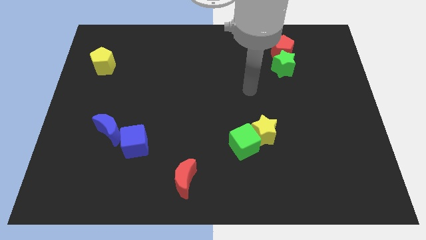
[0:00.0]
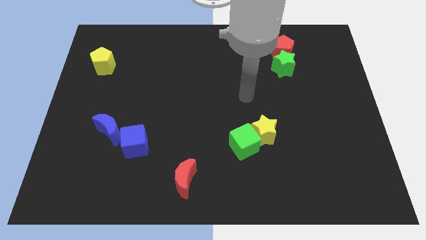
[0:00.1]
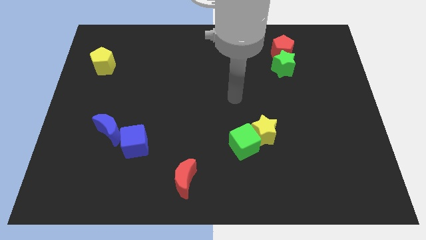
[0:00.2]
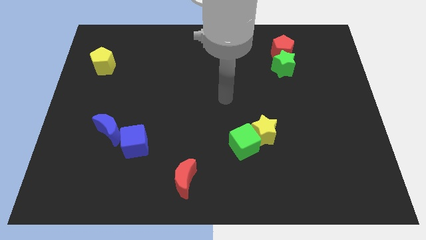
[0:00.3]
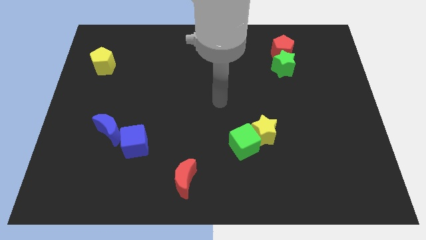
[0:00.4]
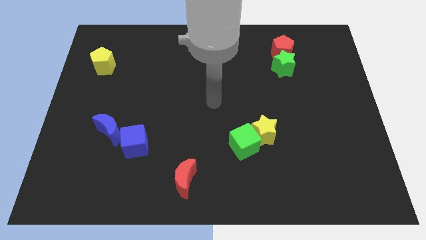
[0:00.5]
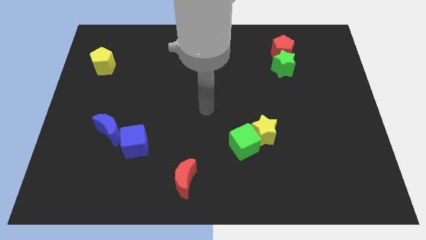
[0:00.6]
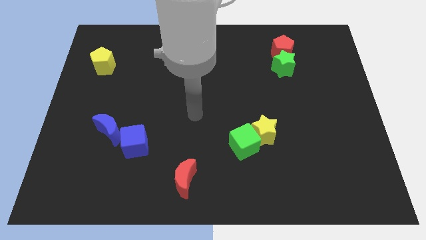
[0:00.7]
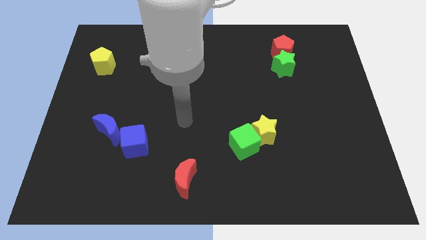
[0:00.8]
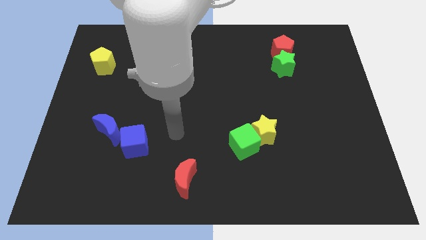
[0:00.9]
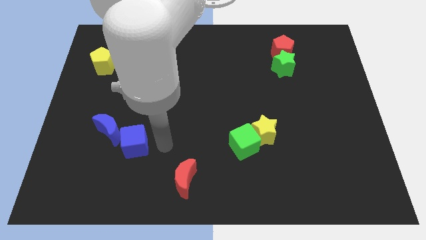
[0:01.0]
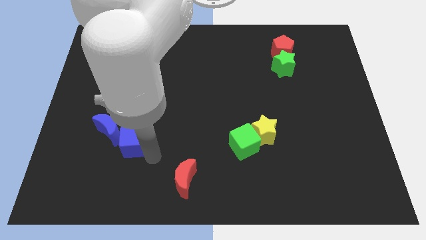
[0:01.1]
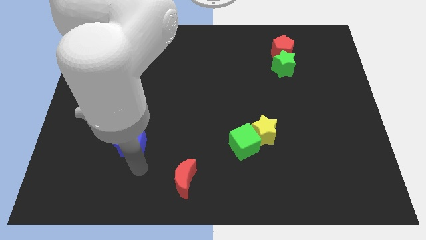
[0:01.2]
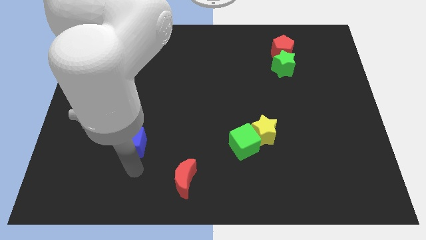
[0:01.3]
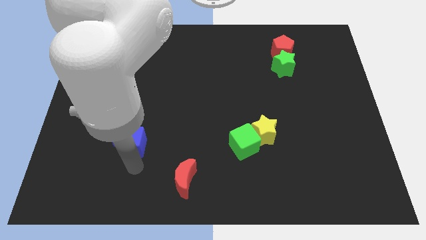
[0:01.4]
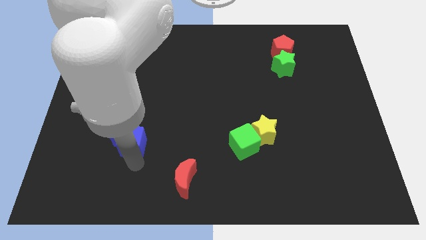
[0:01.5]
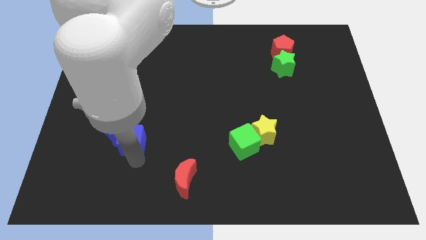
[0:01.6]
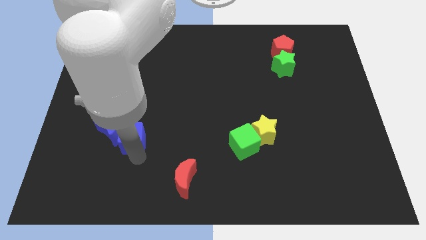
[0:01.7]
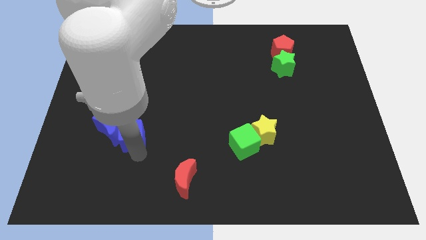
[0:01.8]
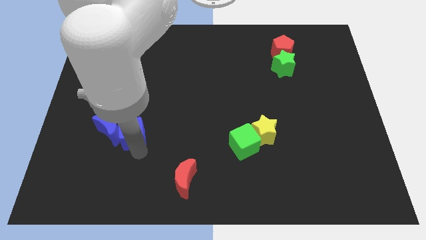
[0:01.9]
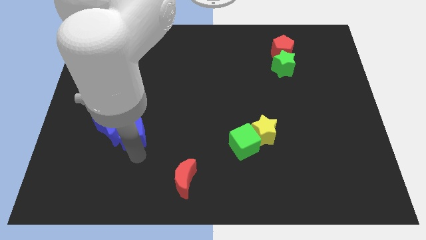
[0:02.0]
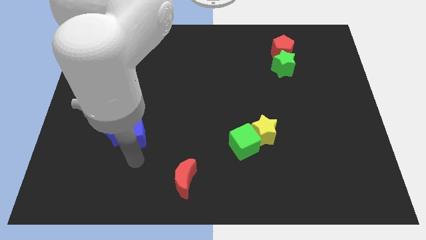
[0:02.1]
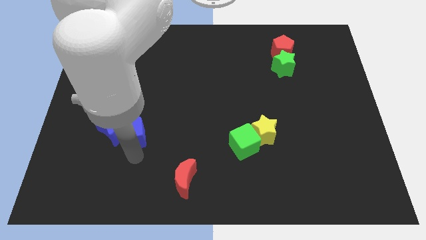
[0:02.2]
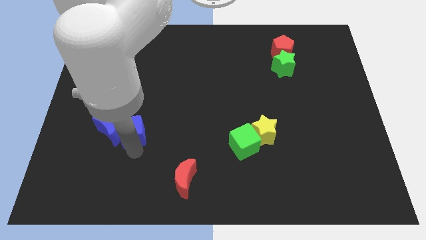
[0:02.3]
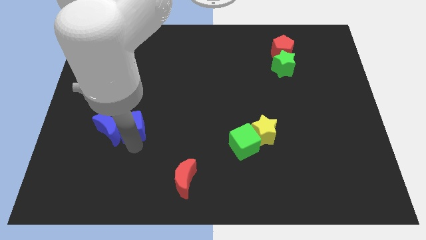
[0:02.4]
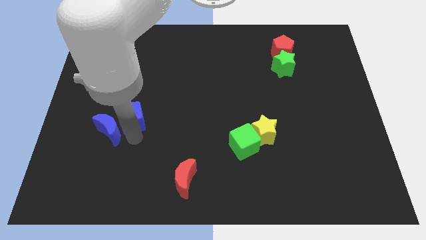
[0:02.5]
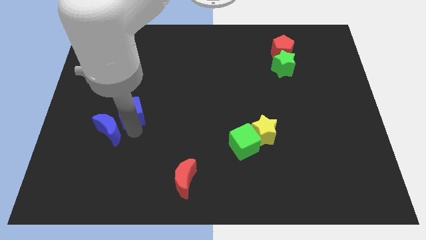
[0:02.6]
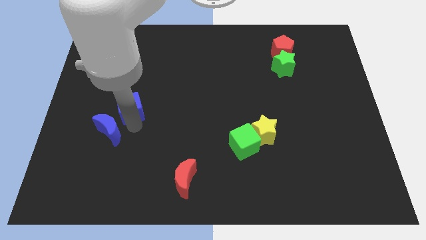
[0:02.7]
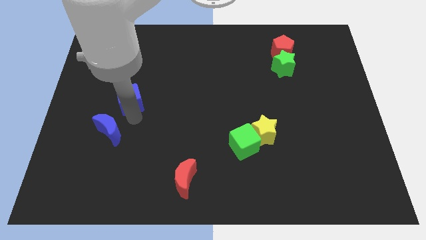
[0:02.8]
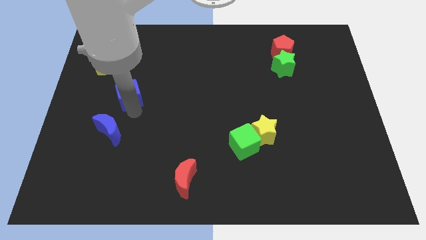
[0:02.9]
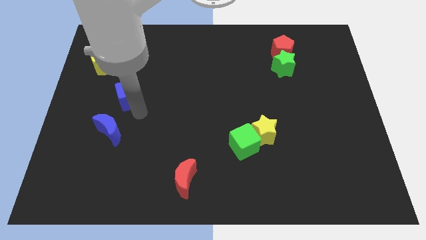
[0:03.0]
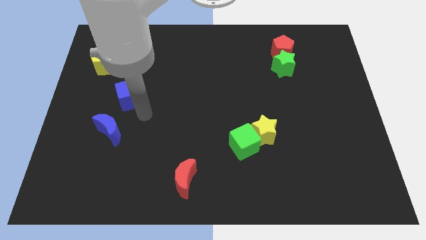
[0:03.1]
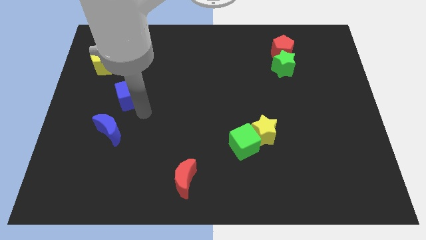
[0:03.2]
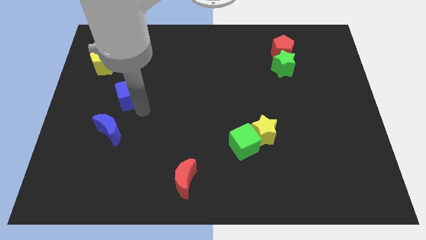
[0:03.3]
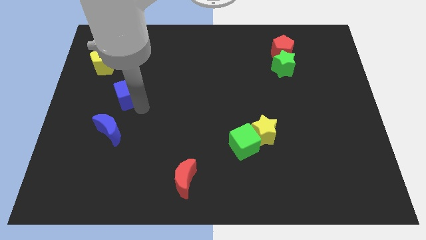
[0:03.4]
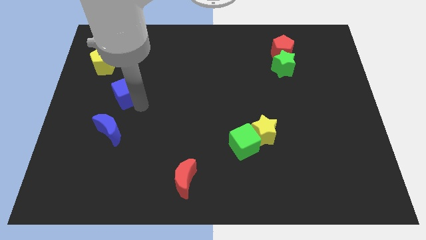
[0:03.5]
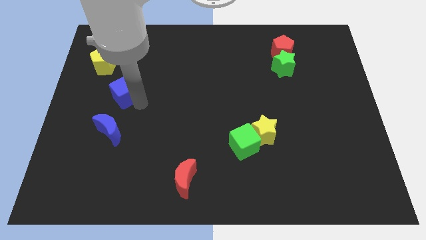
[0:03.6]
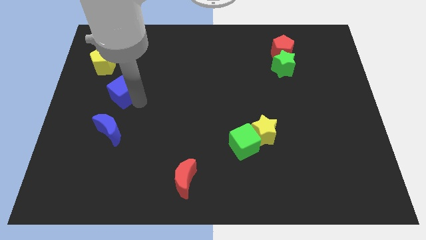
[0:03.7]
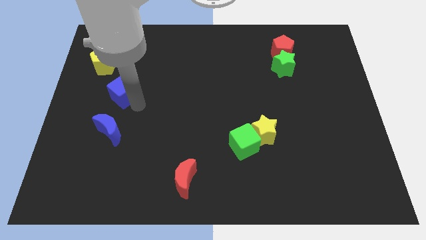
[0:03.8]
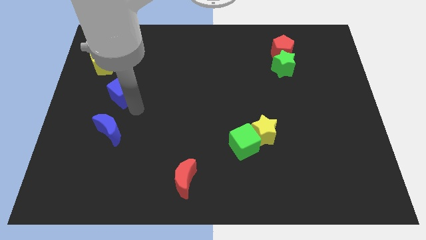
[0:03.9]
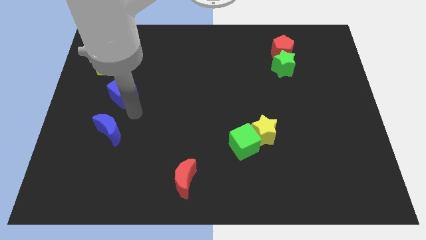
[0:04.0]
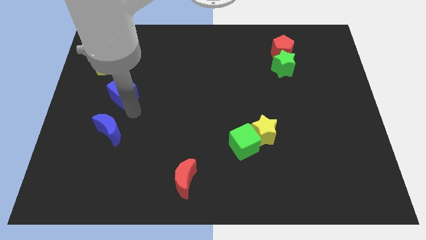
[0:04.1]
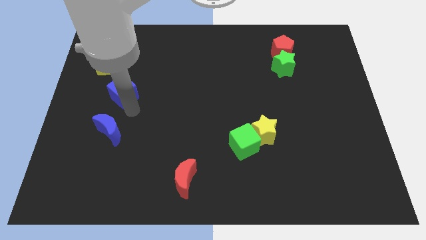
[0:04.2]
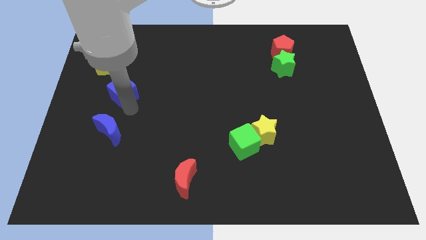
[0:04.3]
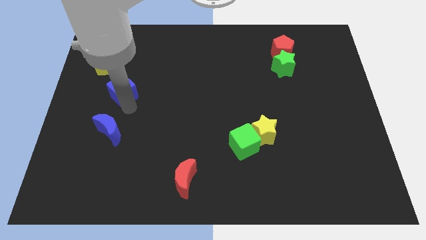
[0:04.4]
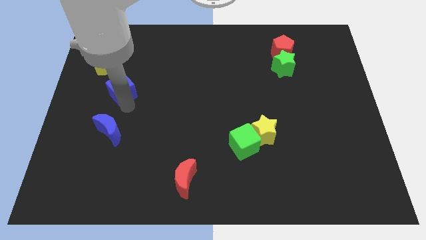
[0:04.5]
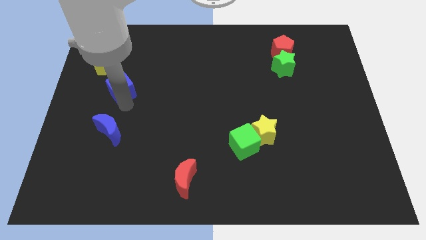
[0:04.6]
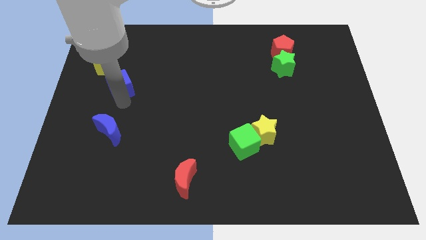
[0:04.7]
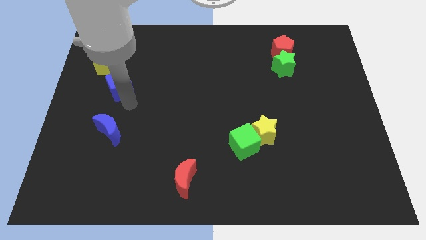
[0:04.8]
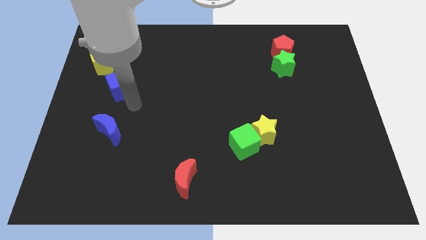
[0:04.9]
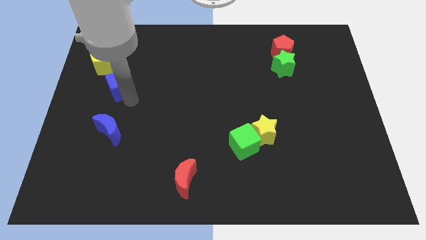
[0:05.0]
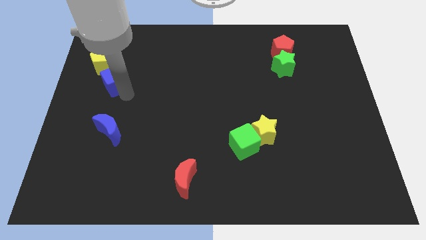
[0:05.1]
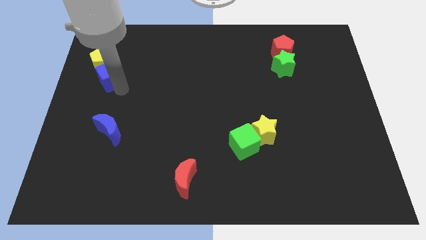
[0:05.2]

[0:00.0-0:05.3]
move the blue cube close to the yellow pentagon

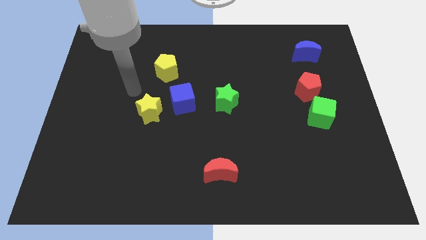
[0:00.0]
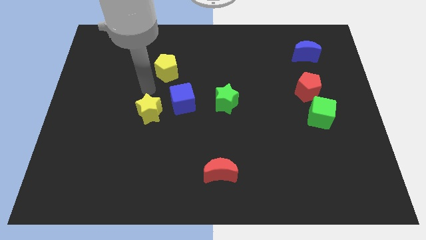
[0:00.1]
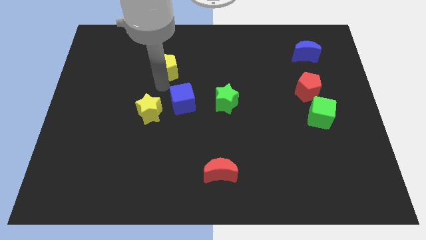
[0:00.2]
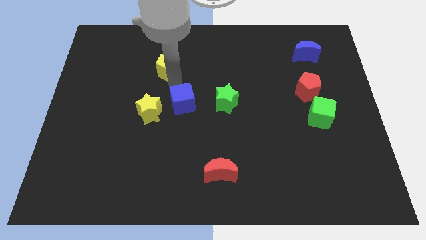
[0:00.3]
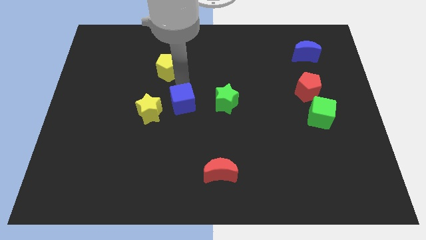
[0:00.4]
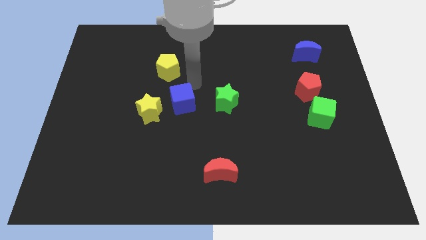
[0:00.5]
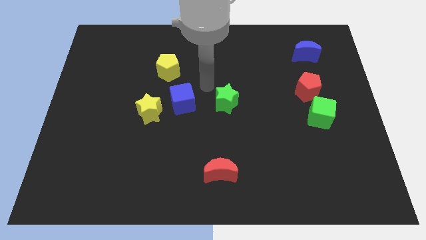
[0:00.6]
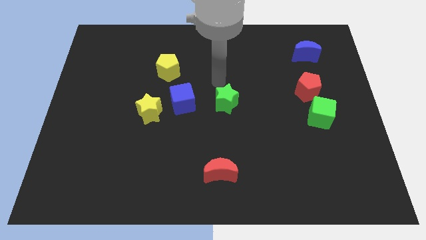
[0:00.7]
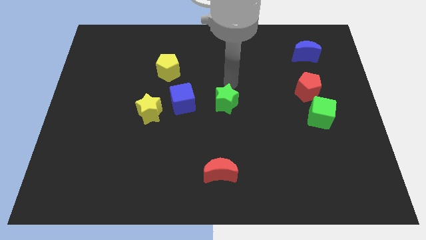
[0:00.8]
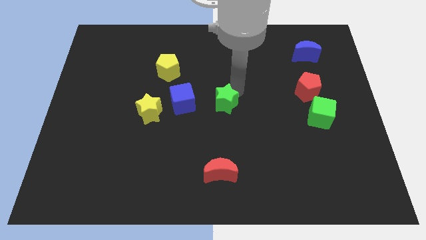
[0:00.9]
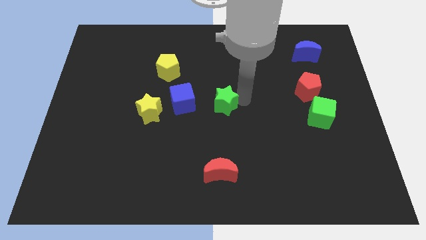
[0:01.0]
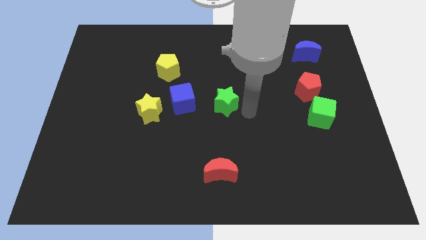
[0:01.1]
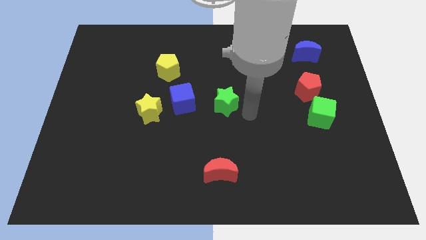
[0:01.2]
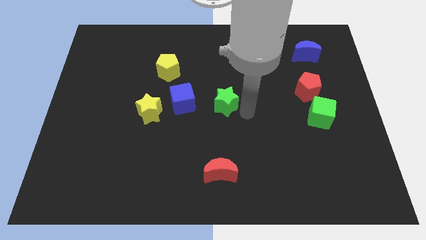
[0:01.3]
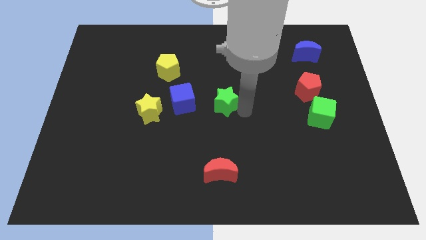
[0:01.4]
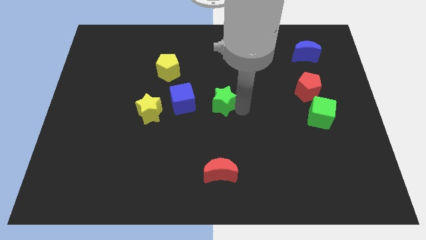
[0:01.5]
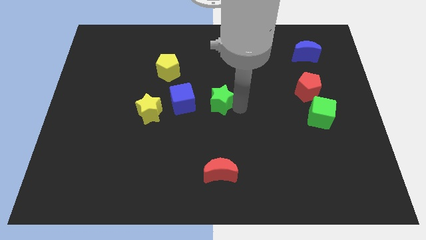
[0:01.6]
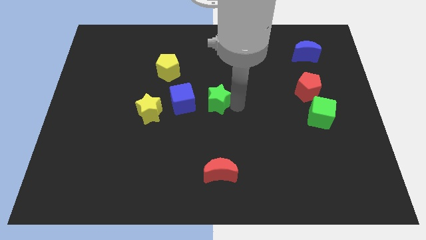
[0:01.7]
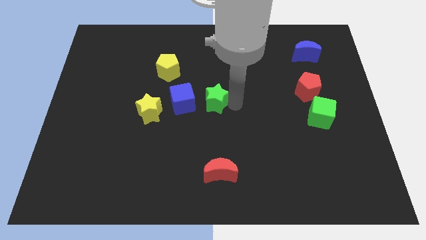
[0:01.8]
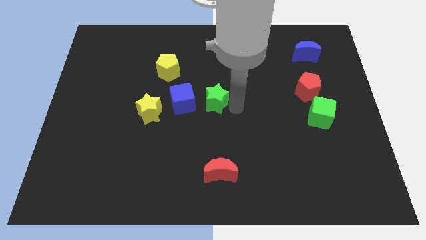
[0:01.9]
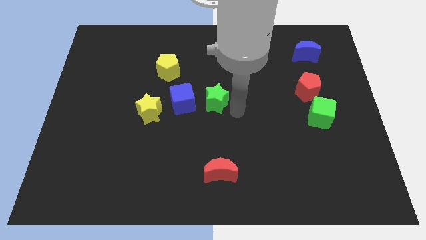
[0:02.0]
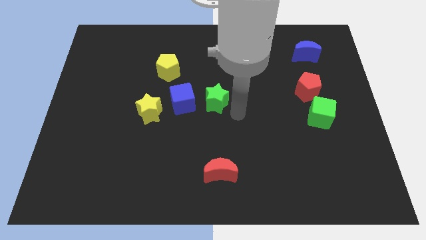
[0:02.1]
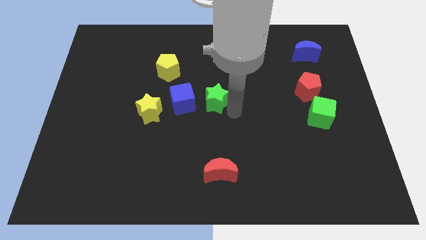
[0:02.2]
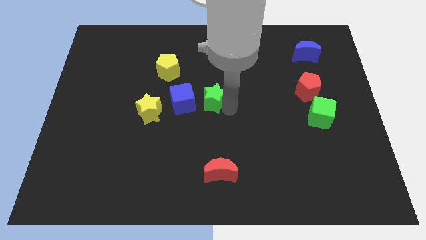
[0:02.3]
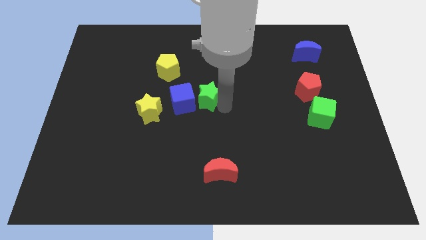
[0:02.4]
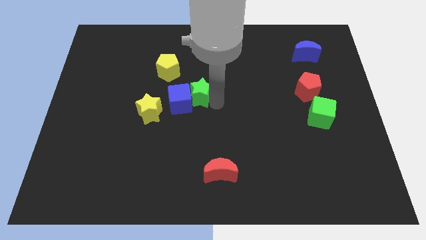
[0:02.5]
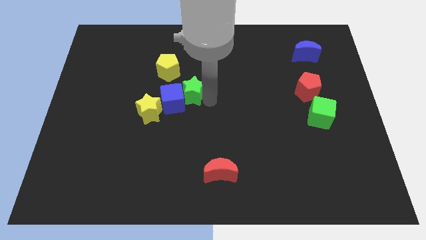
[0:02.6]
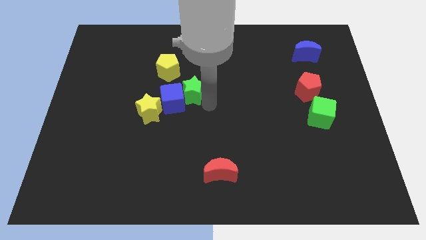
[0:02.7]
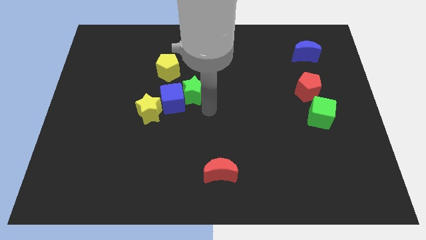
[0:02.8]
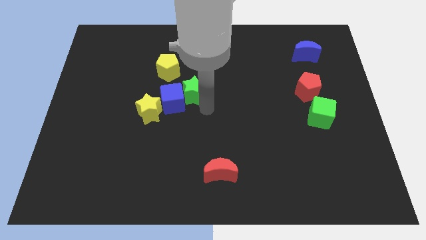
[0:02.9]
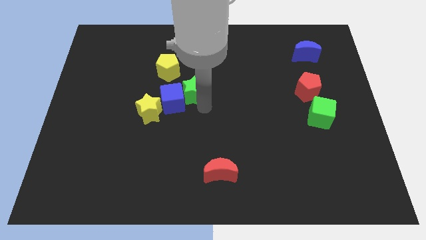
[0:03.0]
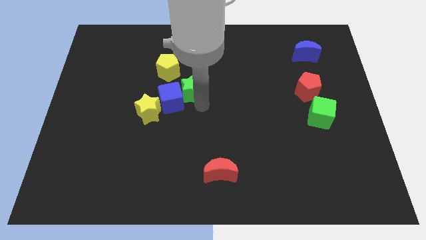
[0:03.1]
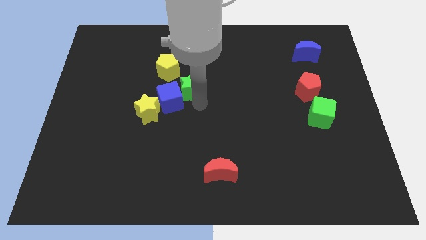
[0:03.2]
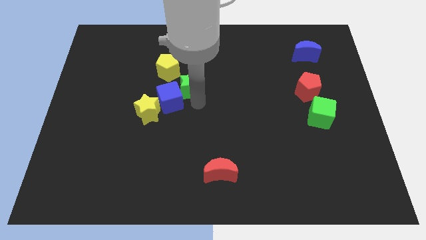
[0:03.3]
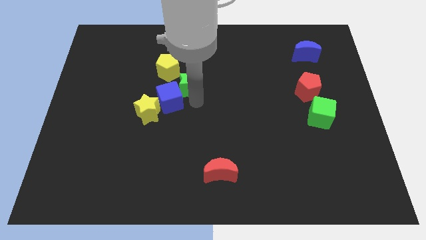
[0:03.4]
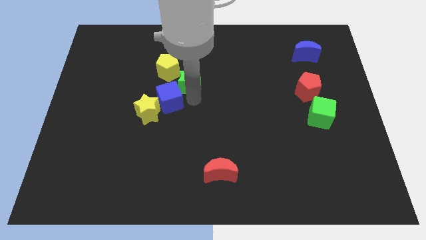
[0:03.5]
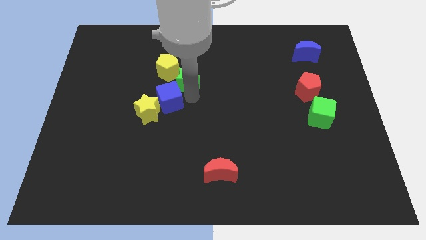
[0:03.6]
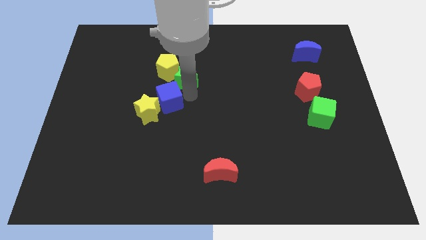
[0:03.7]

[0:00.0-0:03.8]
put the green star to the yellow pentagon
